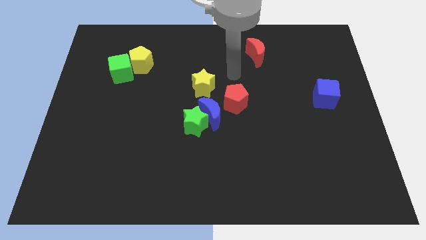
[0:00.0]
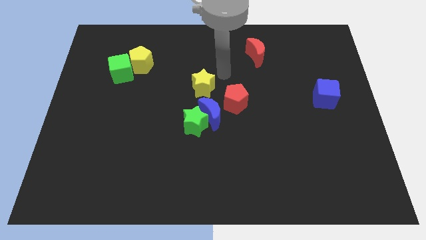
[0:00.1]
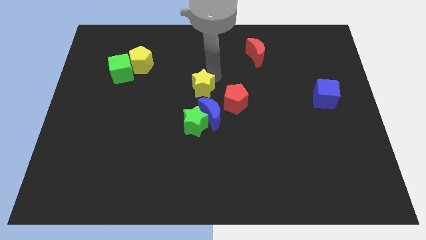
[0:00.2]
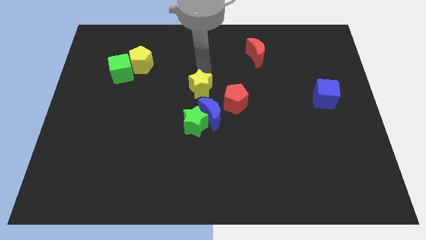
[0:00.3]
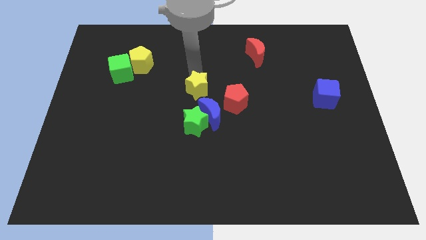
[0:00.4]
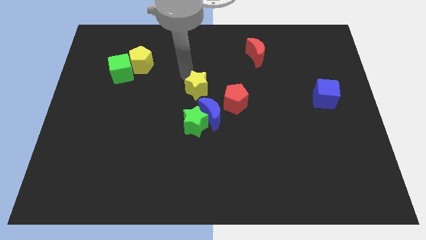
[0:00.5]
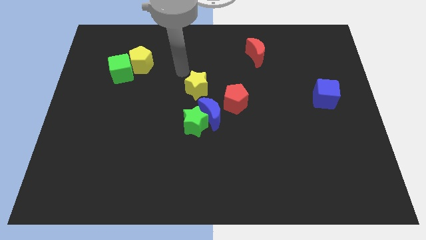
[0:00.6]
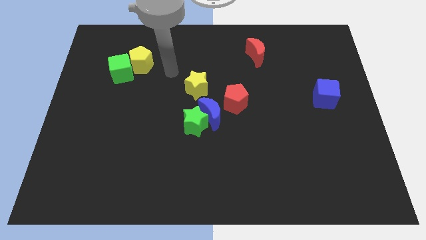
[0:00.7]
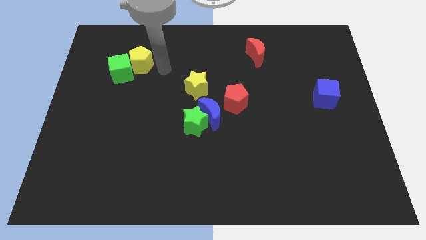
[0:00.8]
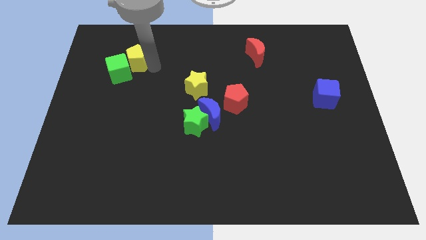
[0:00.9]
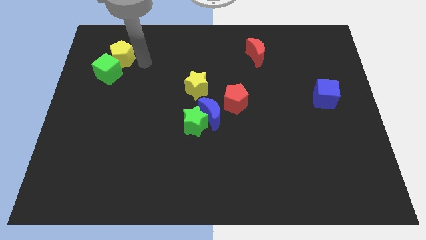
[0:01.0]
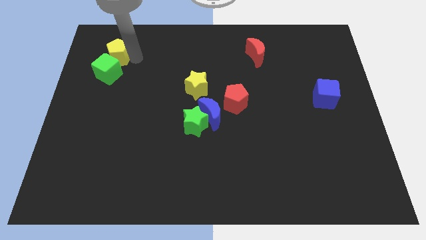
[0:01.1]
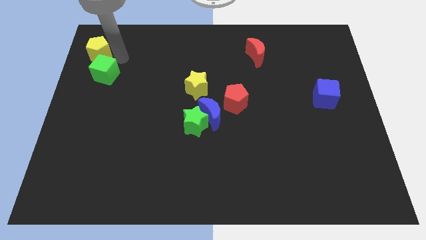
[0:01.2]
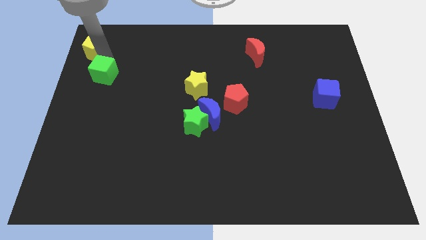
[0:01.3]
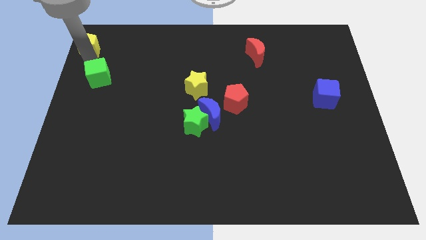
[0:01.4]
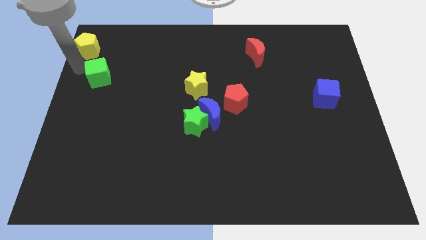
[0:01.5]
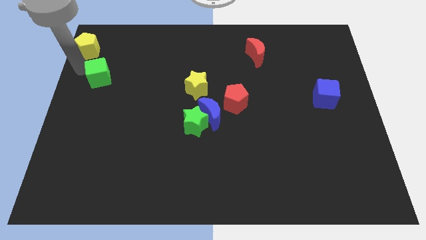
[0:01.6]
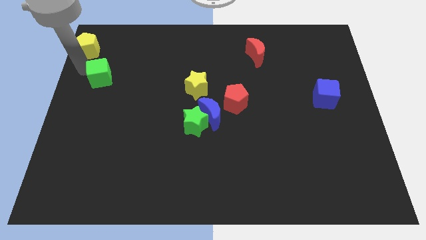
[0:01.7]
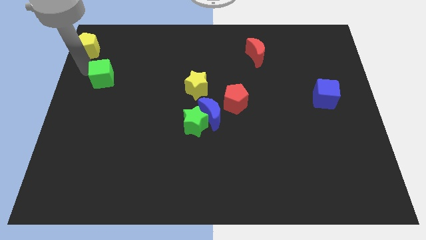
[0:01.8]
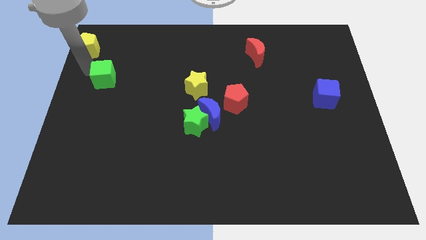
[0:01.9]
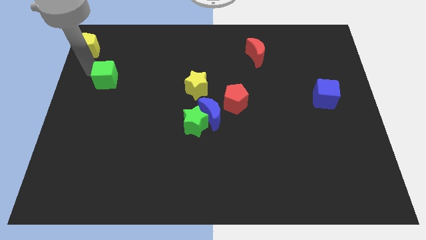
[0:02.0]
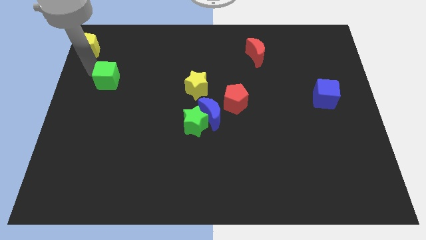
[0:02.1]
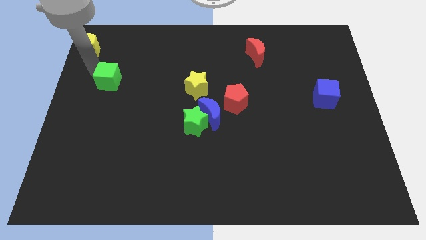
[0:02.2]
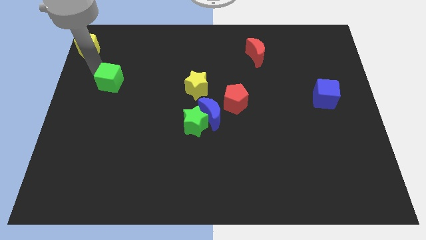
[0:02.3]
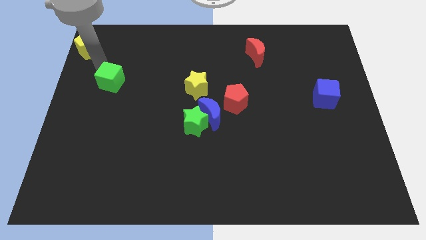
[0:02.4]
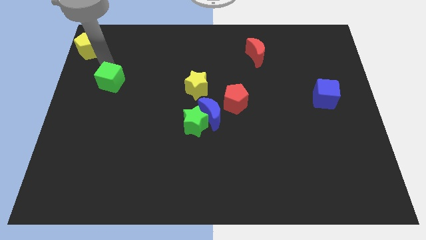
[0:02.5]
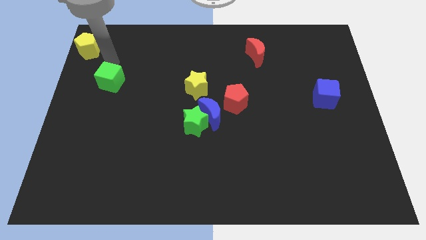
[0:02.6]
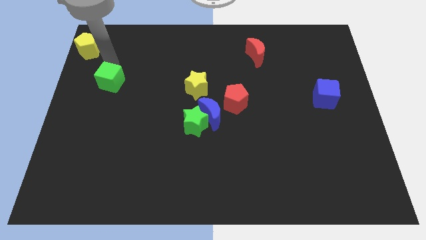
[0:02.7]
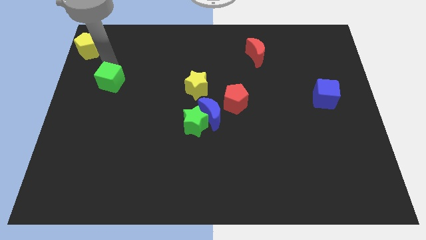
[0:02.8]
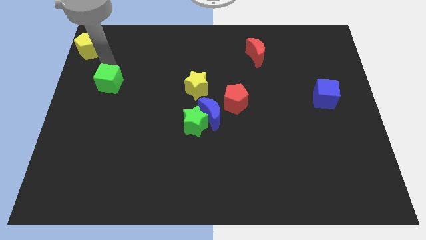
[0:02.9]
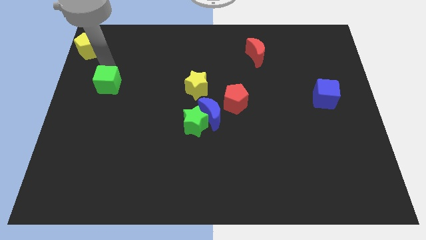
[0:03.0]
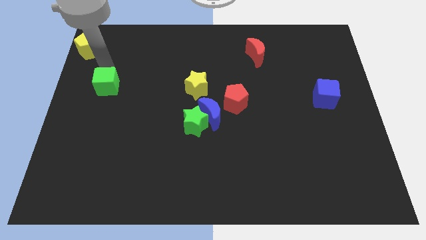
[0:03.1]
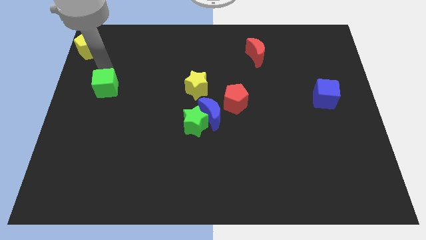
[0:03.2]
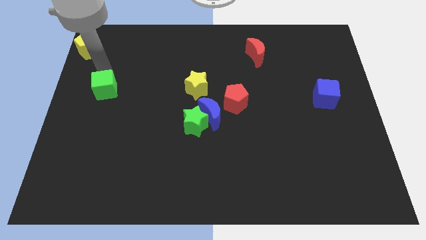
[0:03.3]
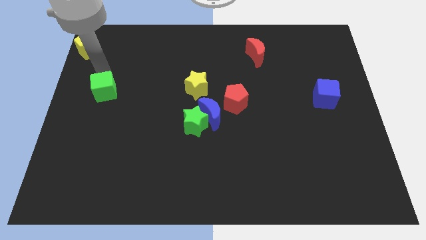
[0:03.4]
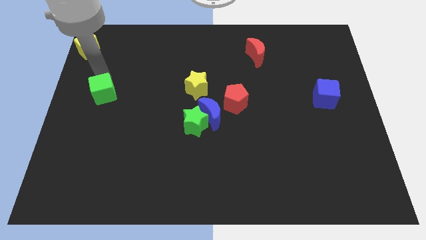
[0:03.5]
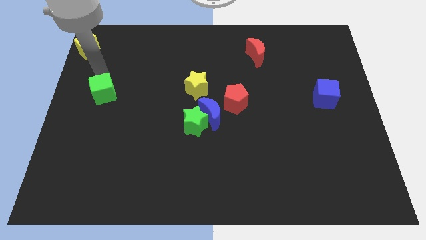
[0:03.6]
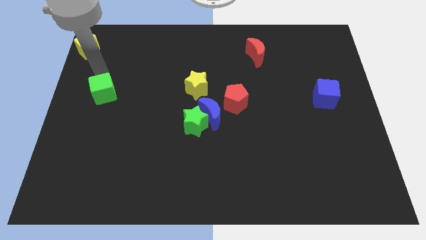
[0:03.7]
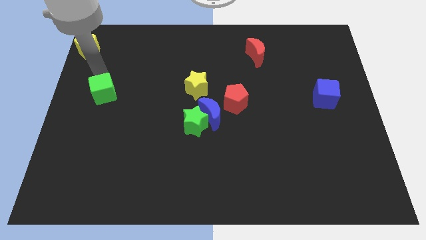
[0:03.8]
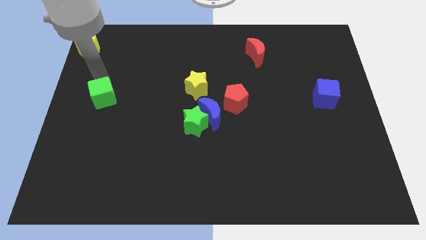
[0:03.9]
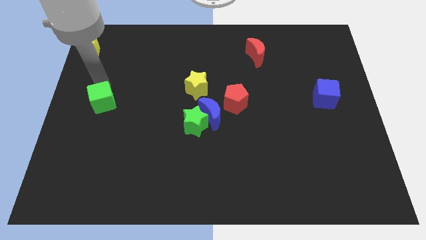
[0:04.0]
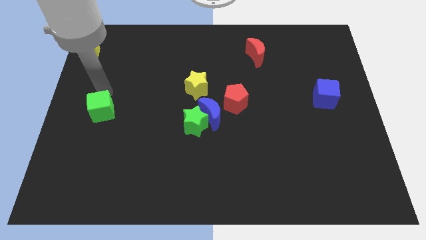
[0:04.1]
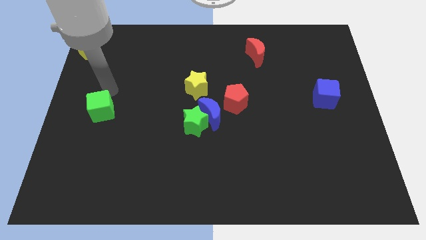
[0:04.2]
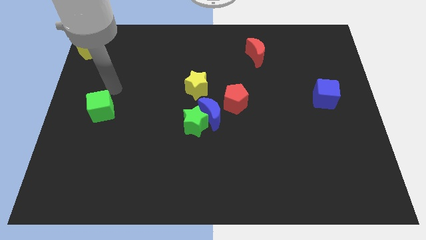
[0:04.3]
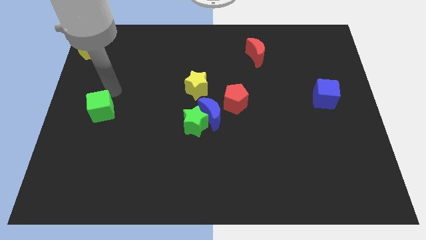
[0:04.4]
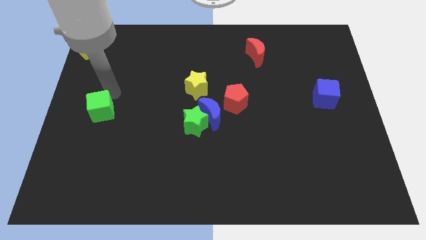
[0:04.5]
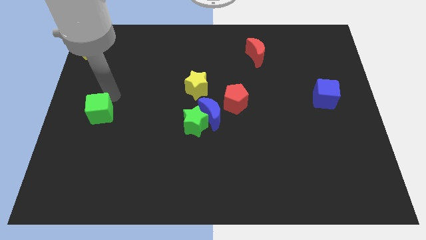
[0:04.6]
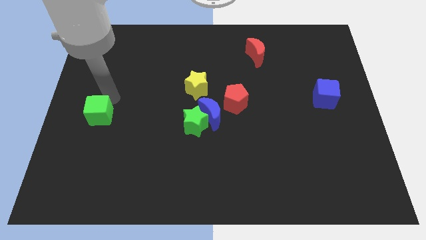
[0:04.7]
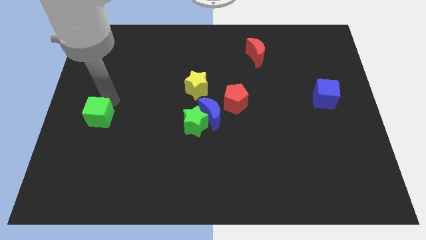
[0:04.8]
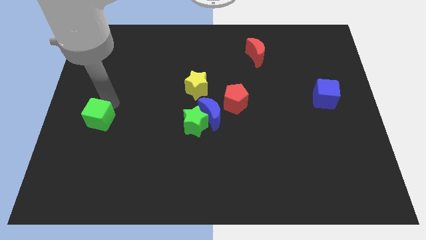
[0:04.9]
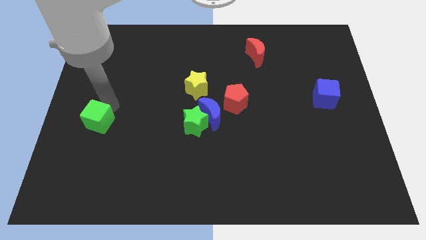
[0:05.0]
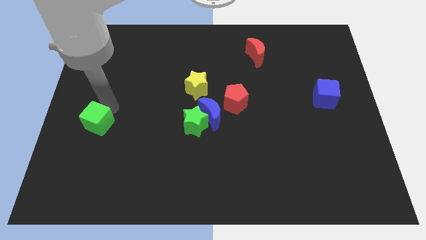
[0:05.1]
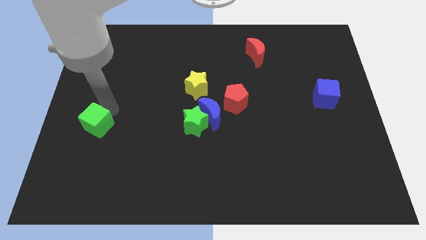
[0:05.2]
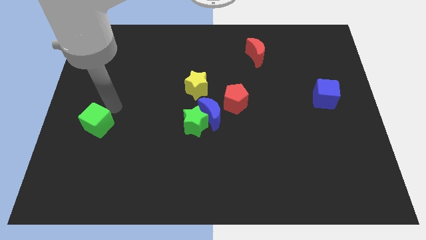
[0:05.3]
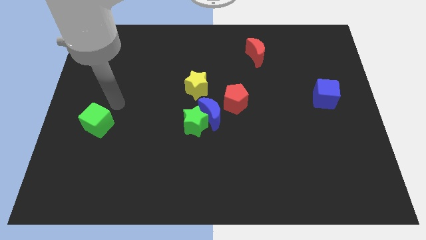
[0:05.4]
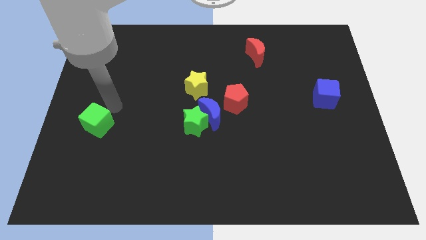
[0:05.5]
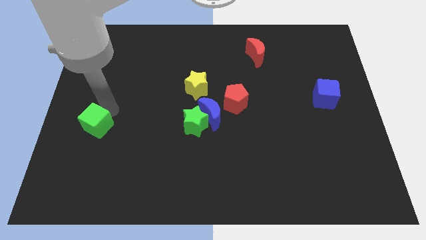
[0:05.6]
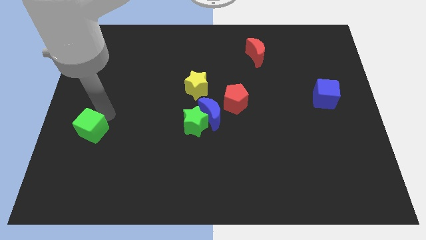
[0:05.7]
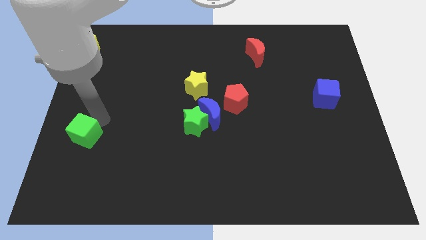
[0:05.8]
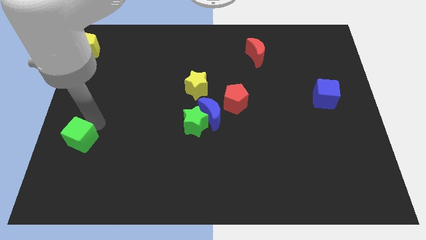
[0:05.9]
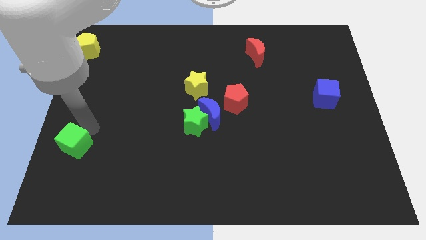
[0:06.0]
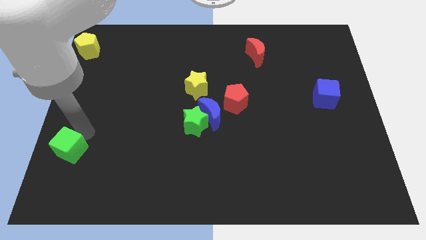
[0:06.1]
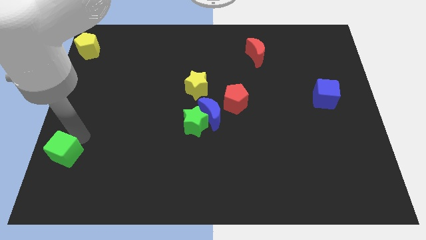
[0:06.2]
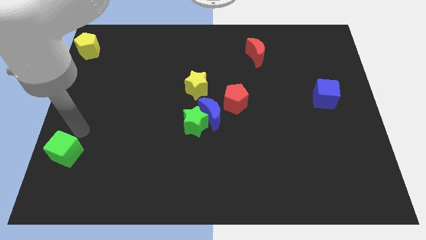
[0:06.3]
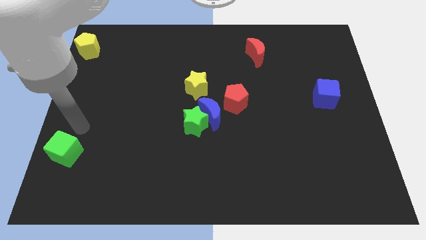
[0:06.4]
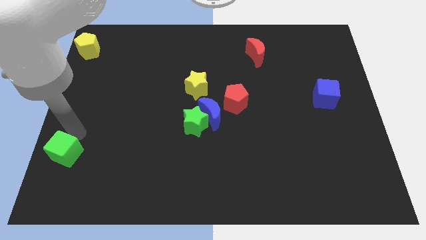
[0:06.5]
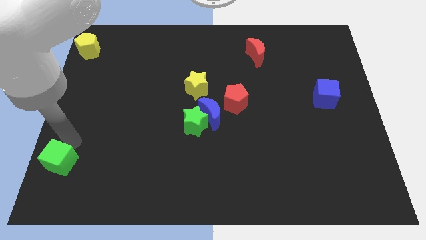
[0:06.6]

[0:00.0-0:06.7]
put the green cube to the bottom left
